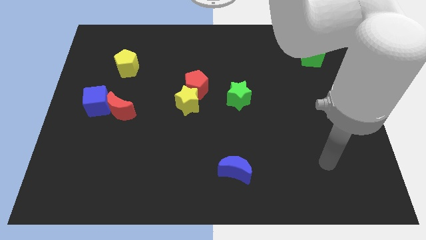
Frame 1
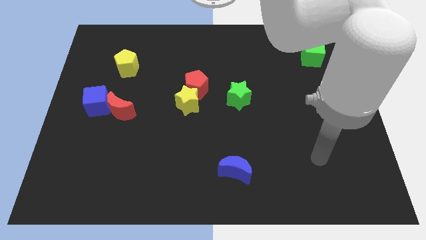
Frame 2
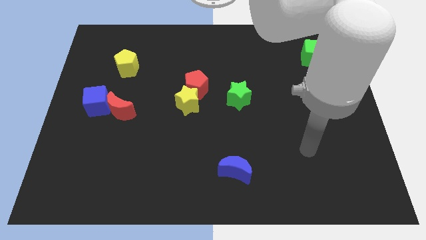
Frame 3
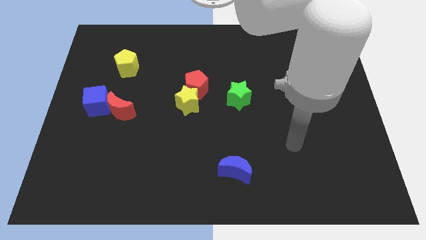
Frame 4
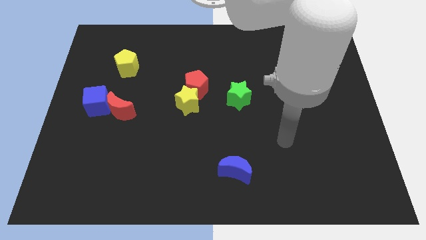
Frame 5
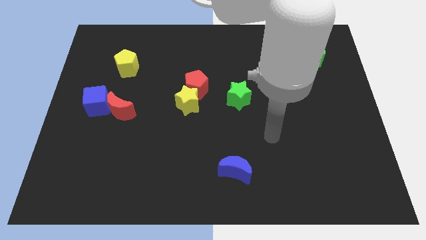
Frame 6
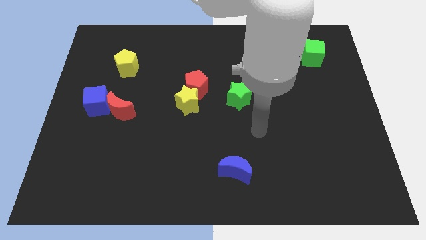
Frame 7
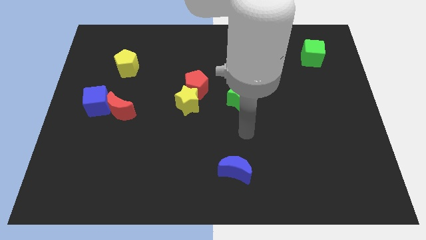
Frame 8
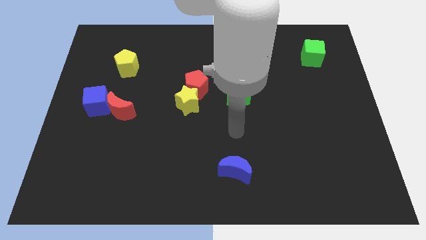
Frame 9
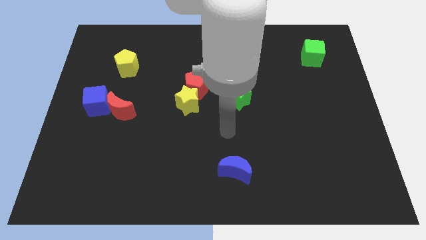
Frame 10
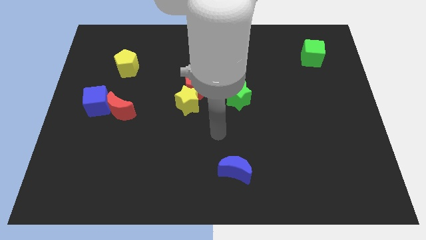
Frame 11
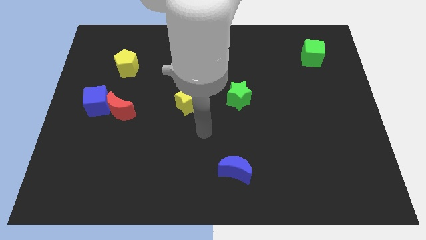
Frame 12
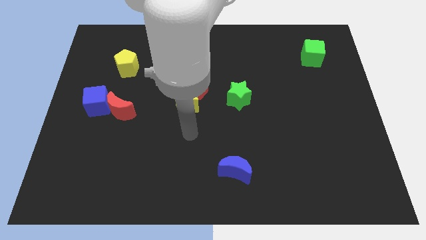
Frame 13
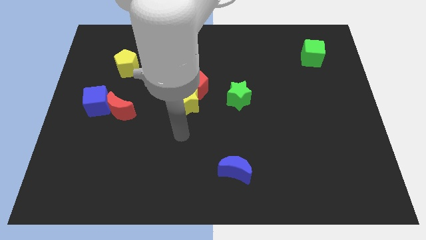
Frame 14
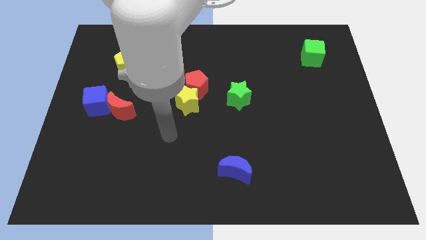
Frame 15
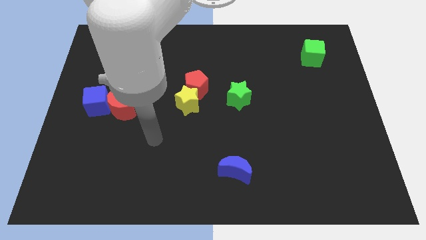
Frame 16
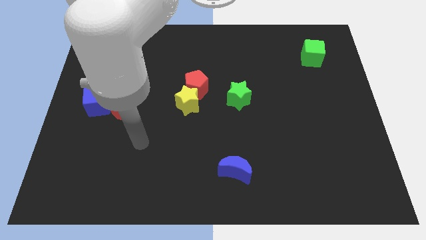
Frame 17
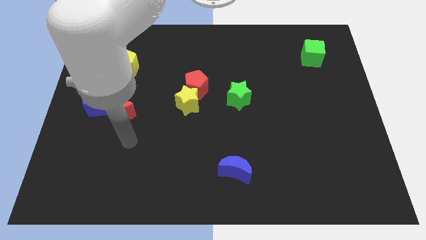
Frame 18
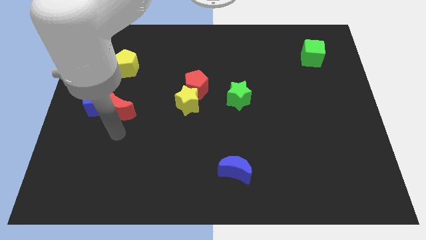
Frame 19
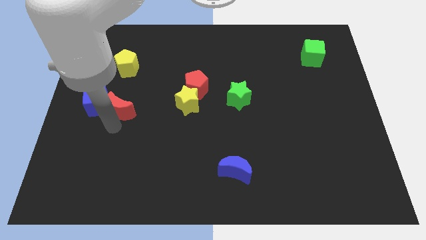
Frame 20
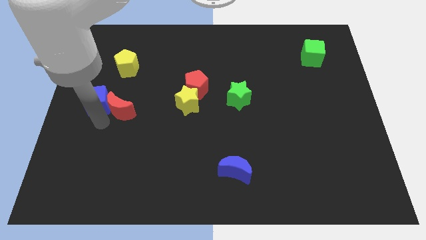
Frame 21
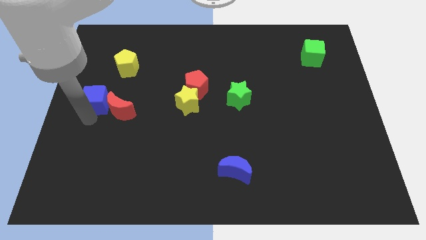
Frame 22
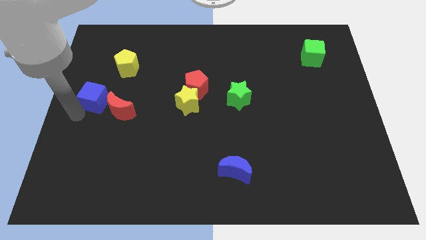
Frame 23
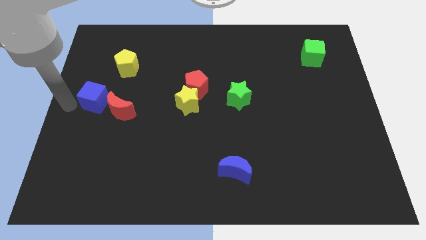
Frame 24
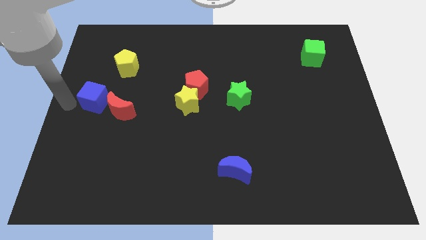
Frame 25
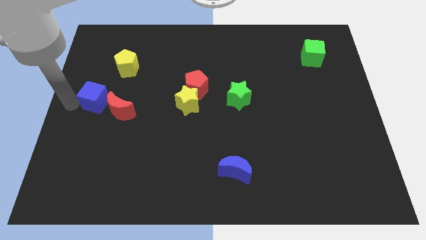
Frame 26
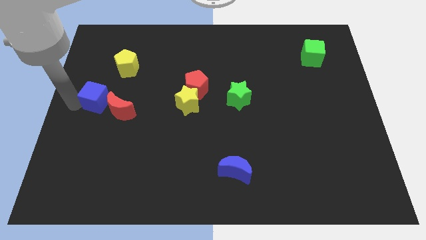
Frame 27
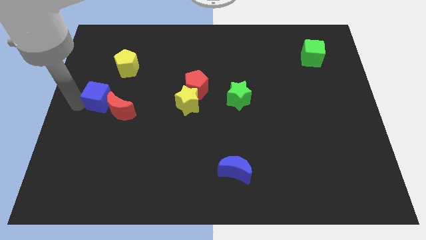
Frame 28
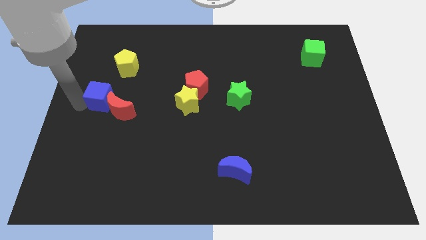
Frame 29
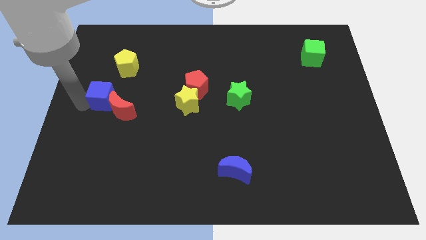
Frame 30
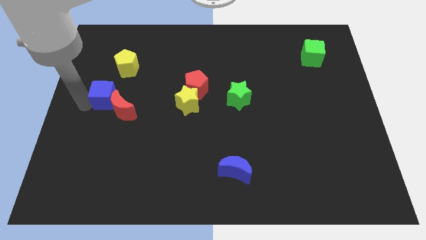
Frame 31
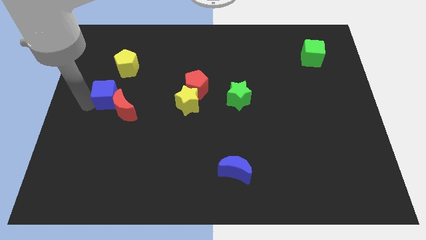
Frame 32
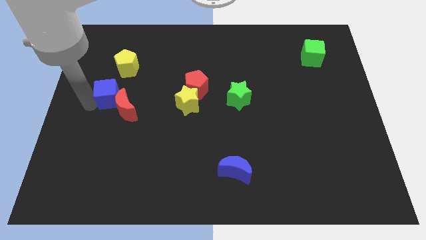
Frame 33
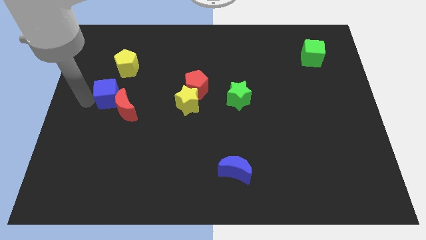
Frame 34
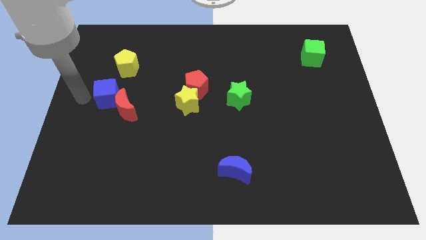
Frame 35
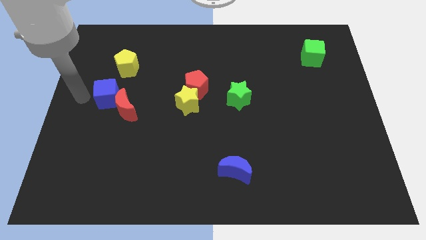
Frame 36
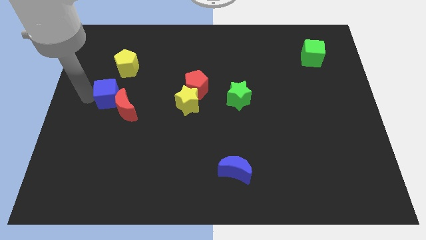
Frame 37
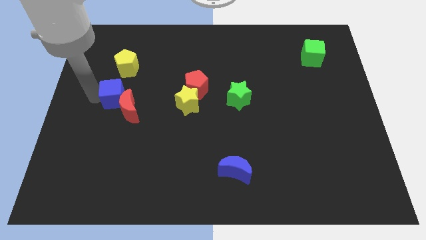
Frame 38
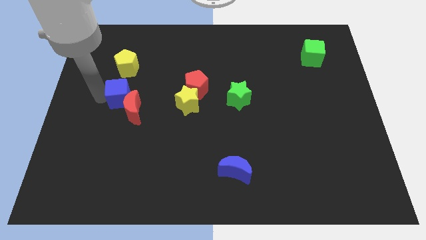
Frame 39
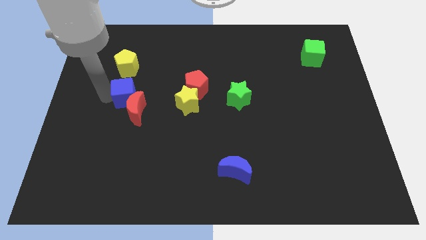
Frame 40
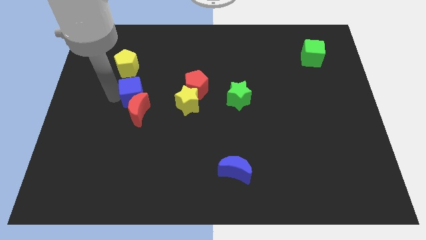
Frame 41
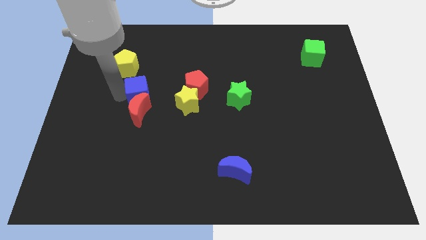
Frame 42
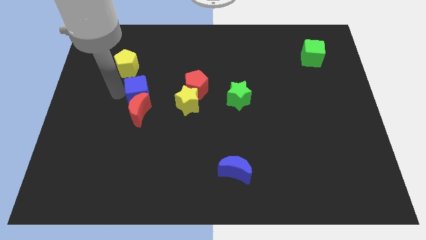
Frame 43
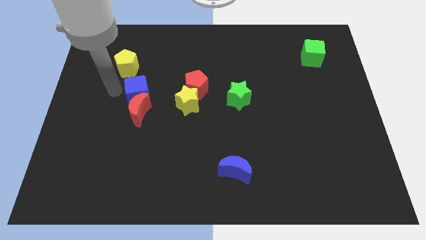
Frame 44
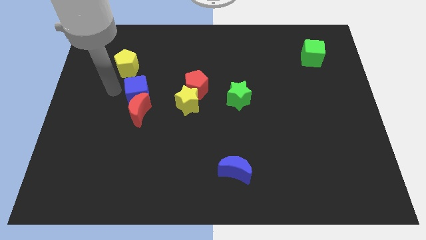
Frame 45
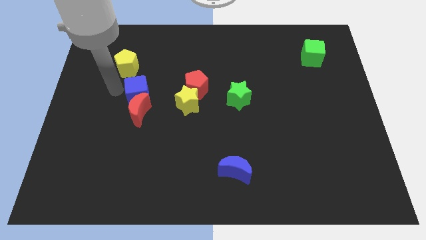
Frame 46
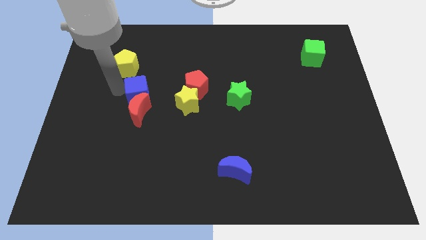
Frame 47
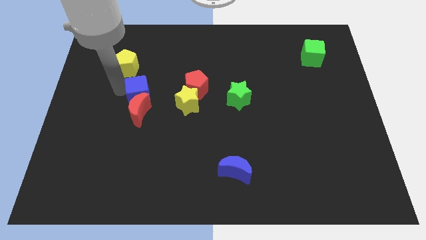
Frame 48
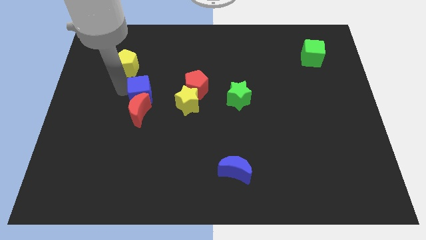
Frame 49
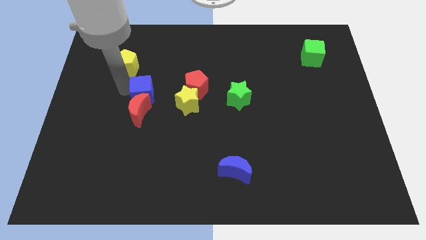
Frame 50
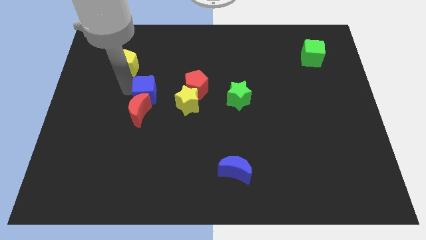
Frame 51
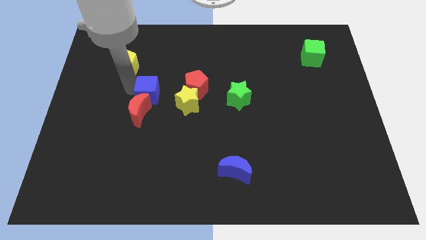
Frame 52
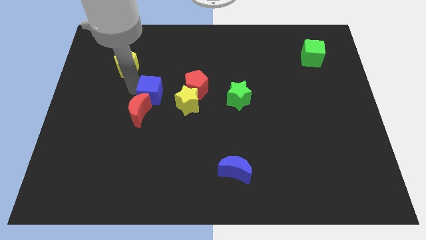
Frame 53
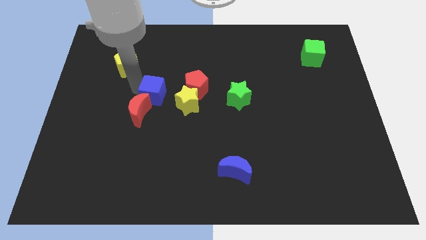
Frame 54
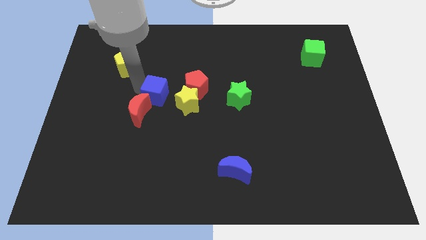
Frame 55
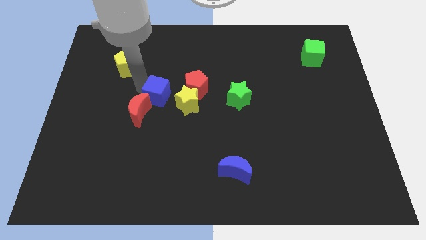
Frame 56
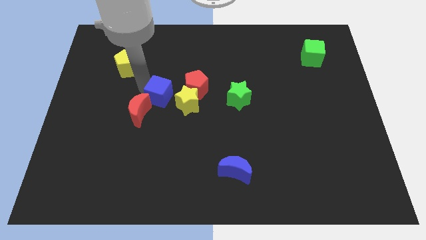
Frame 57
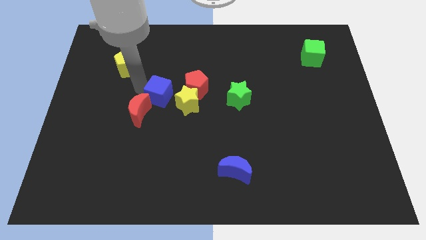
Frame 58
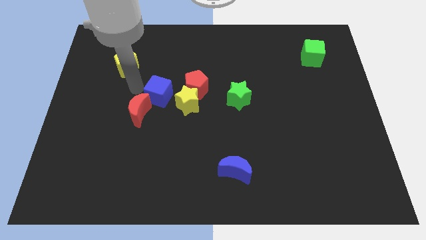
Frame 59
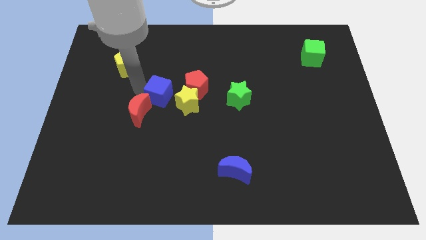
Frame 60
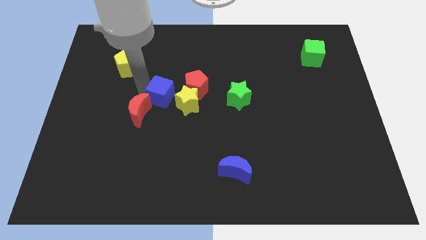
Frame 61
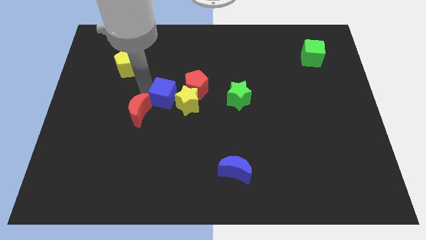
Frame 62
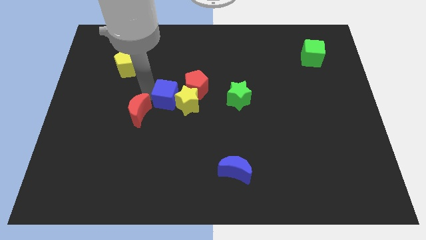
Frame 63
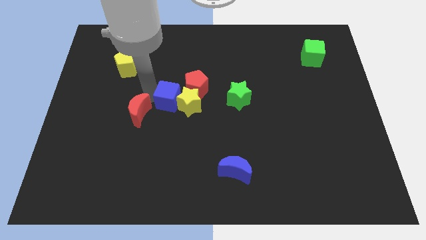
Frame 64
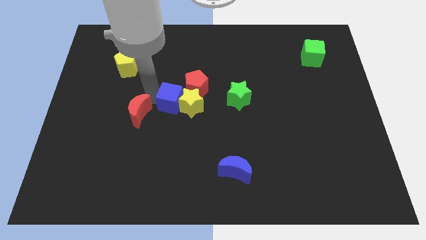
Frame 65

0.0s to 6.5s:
move the blue cube to the left side of the green star

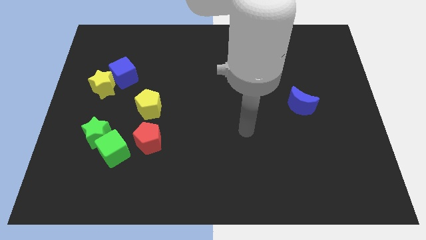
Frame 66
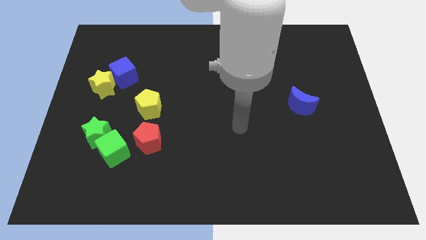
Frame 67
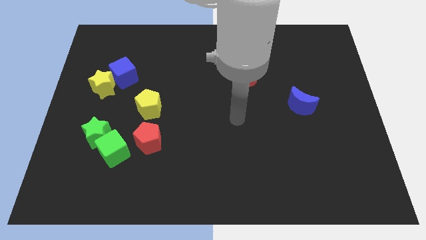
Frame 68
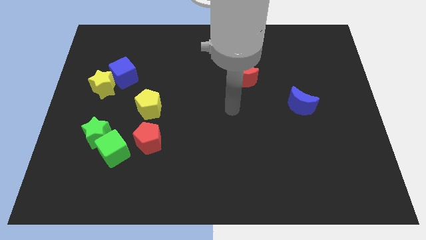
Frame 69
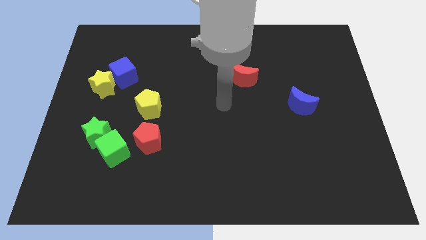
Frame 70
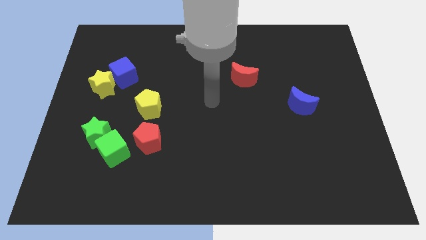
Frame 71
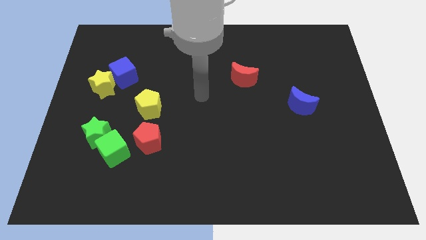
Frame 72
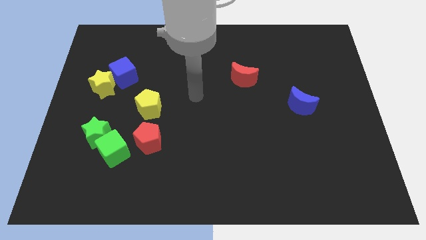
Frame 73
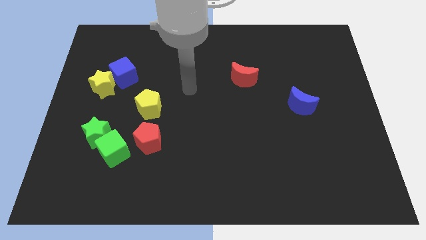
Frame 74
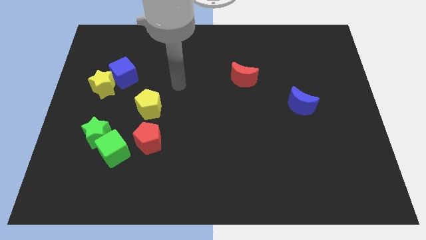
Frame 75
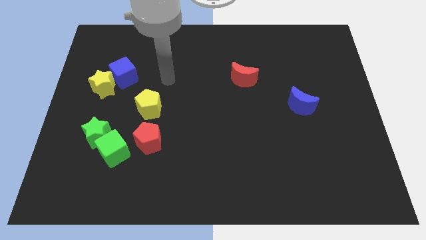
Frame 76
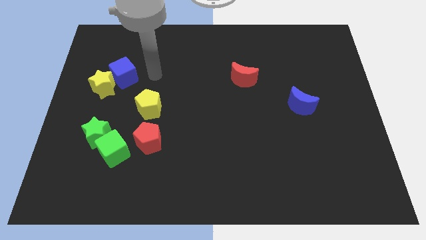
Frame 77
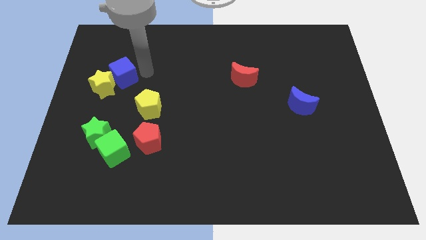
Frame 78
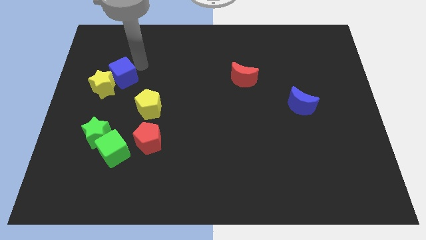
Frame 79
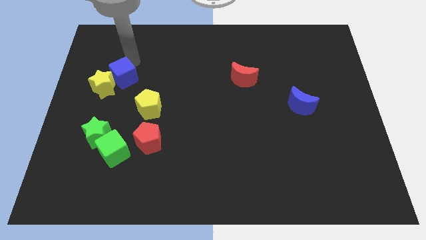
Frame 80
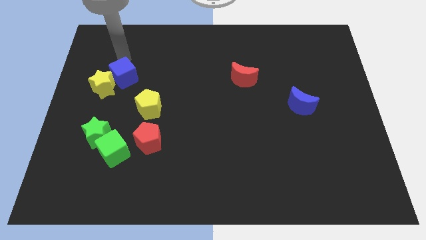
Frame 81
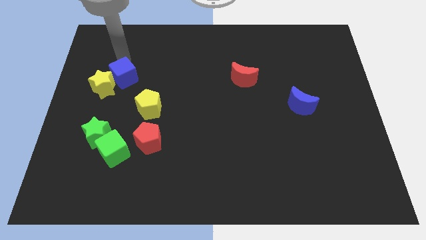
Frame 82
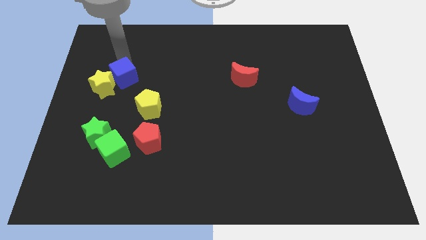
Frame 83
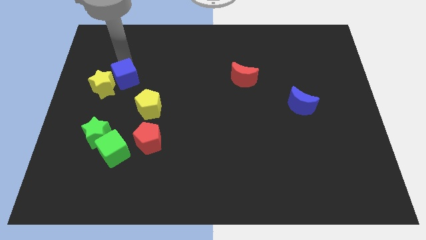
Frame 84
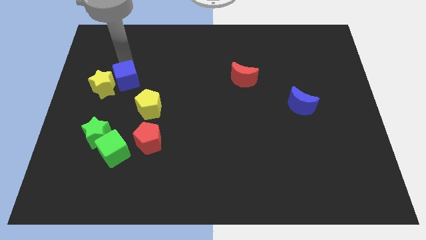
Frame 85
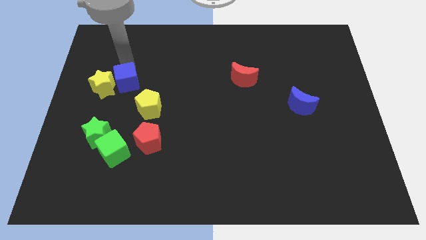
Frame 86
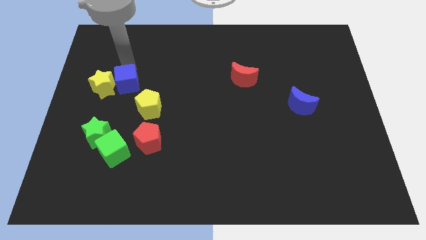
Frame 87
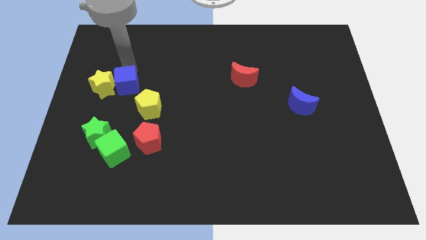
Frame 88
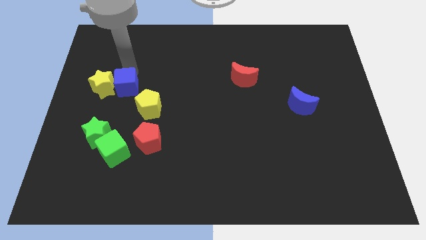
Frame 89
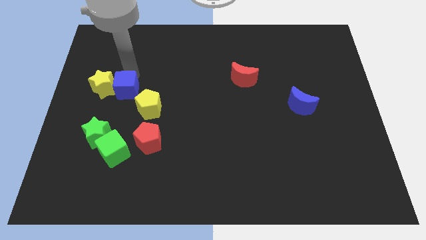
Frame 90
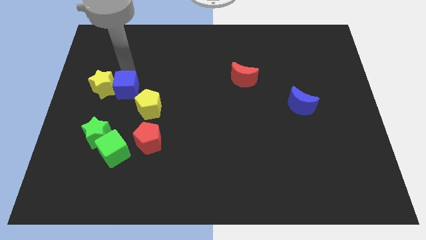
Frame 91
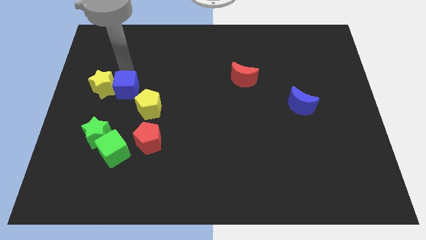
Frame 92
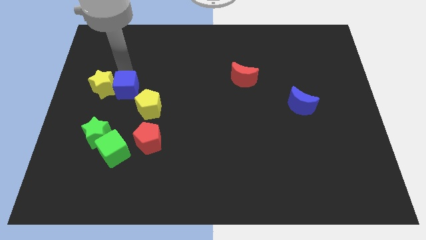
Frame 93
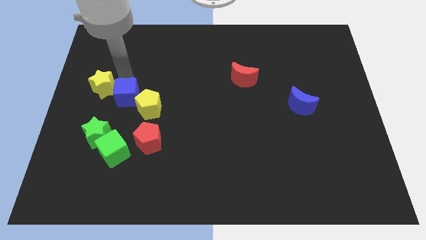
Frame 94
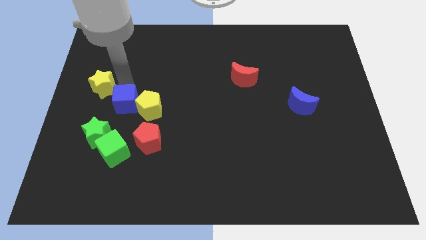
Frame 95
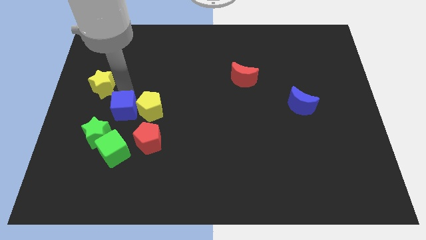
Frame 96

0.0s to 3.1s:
move the blue cube to the top left side of the red pentagon
